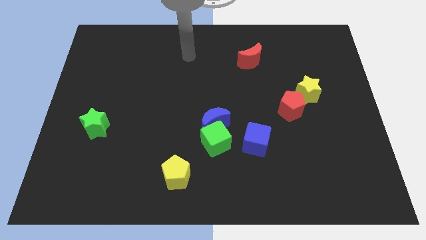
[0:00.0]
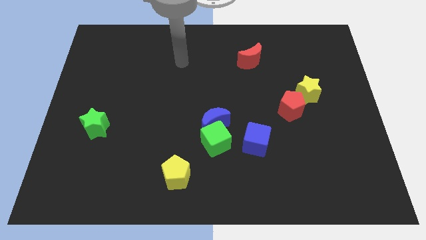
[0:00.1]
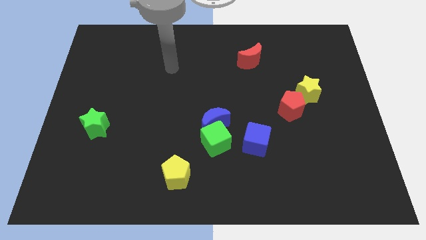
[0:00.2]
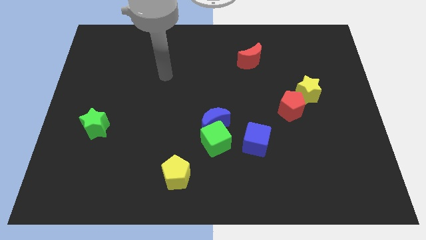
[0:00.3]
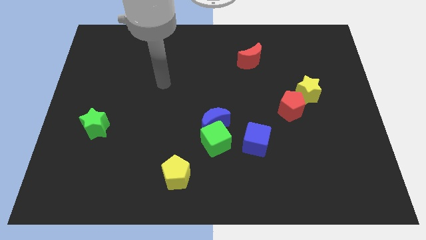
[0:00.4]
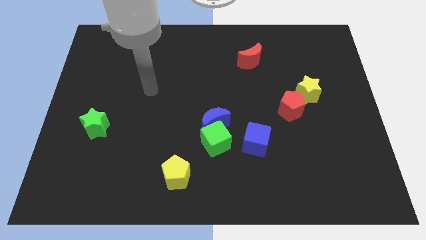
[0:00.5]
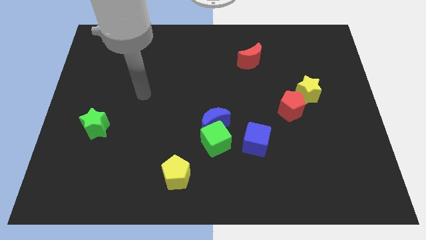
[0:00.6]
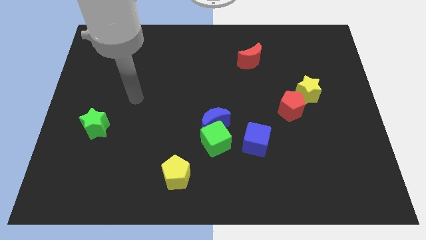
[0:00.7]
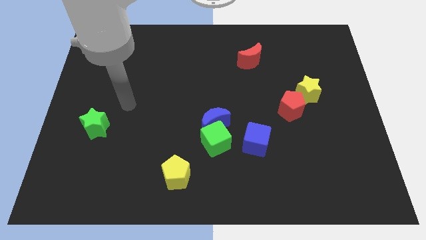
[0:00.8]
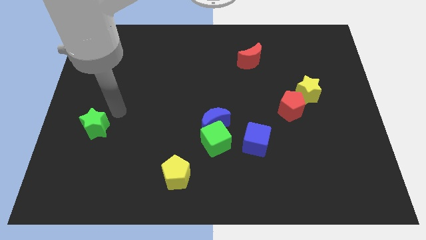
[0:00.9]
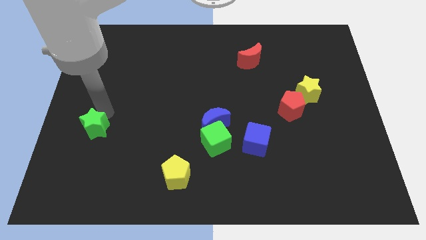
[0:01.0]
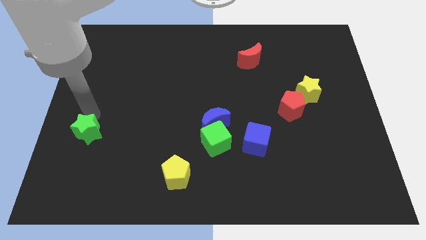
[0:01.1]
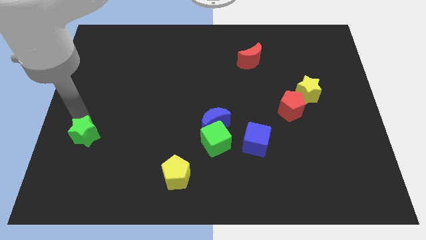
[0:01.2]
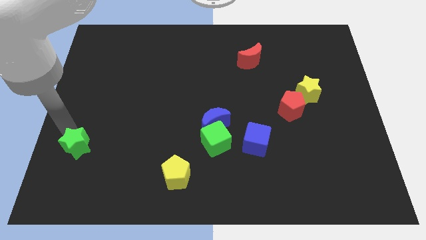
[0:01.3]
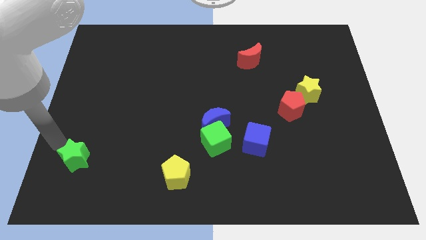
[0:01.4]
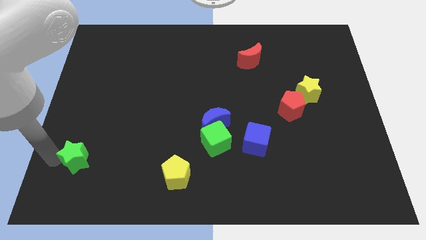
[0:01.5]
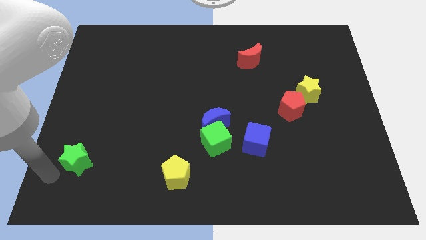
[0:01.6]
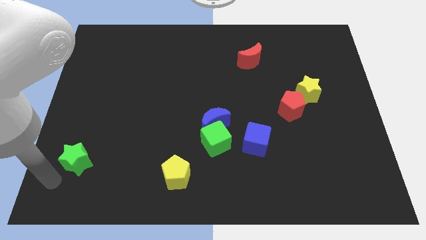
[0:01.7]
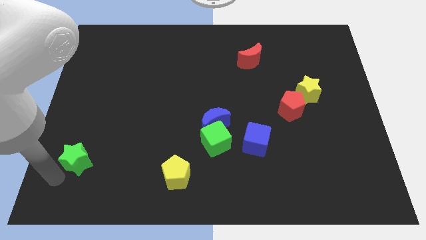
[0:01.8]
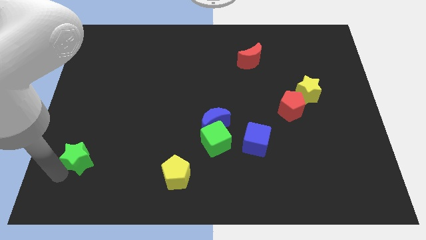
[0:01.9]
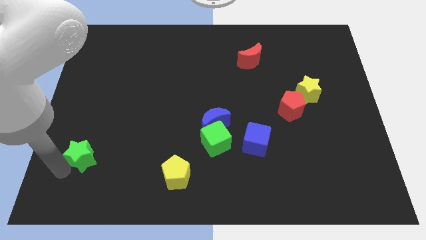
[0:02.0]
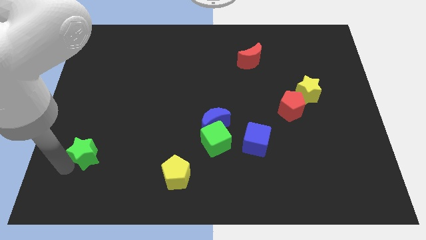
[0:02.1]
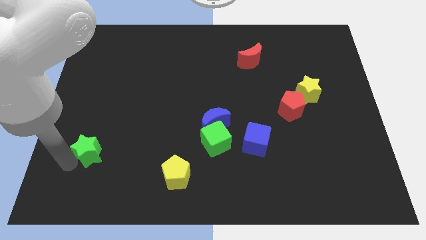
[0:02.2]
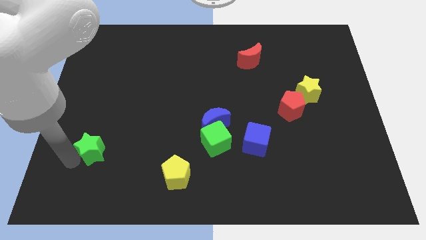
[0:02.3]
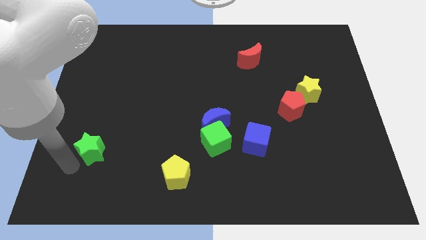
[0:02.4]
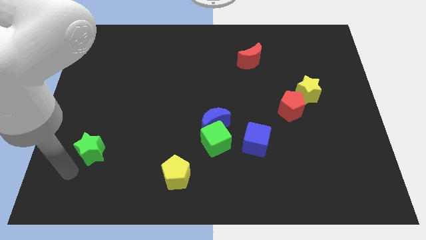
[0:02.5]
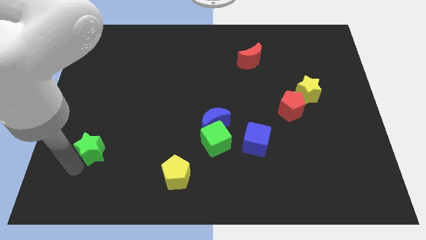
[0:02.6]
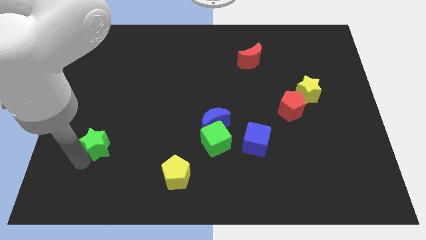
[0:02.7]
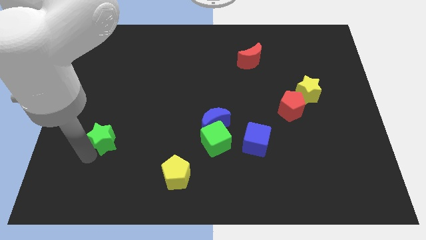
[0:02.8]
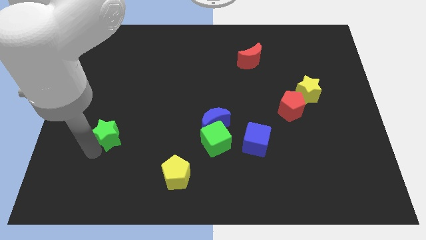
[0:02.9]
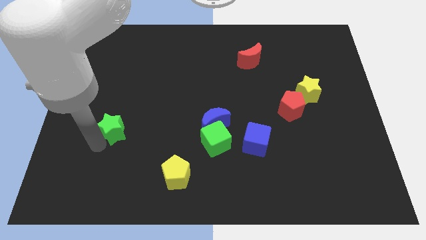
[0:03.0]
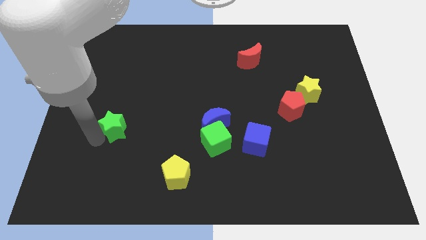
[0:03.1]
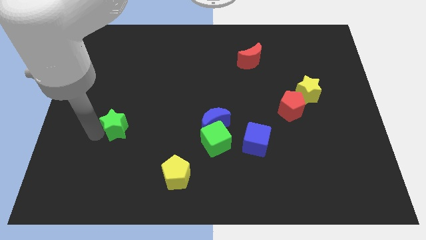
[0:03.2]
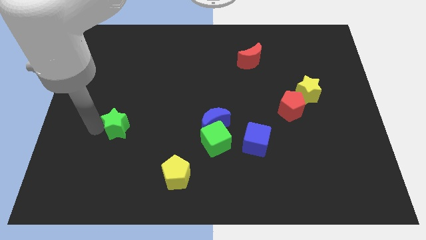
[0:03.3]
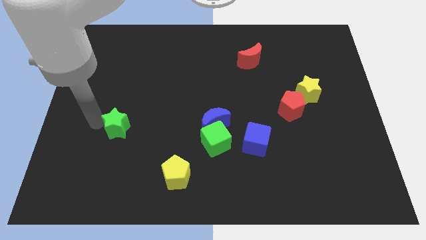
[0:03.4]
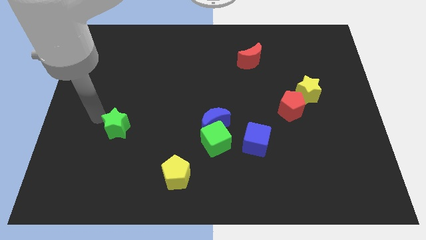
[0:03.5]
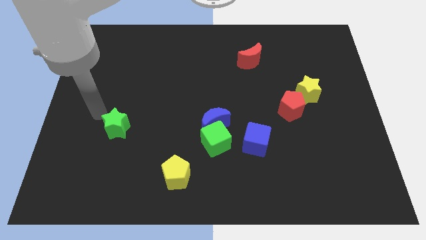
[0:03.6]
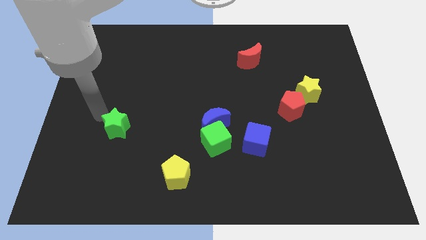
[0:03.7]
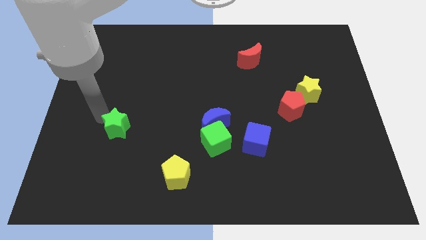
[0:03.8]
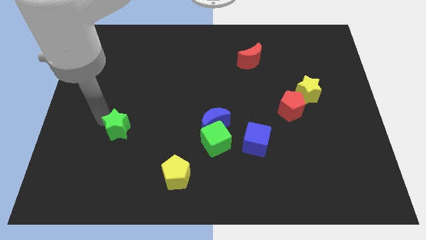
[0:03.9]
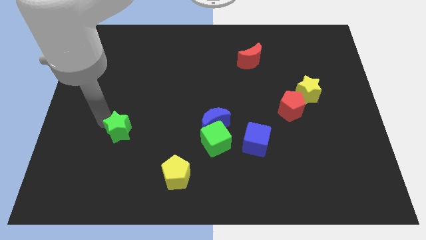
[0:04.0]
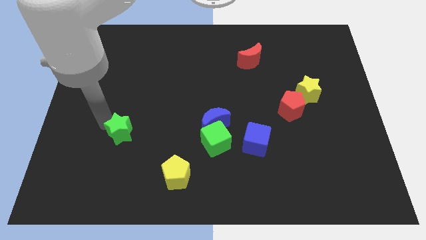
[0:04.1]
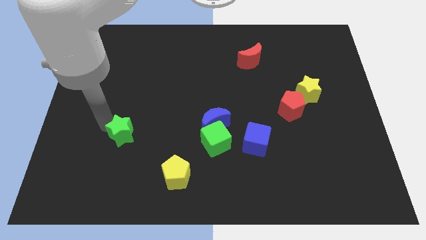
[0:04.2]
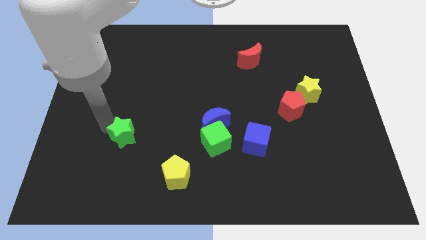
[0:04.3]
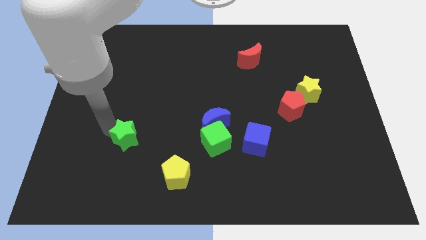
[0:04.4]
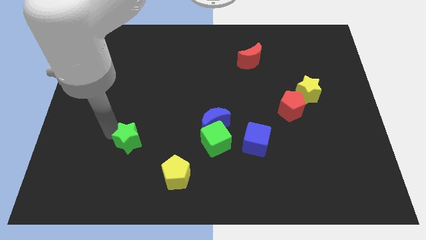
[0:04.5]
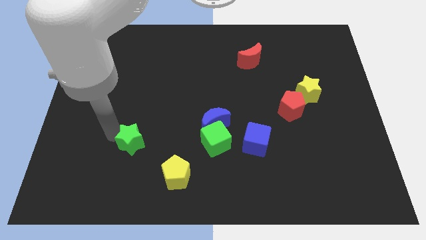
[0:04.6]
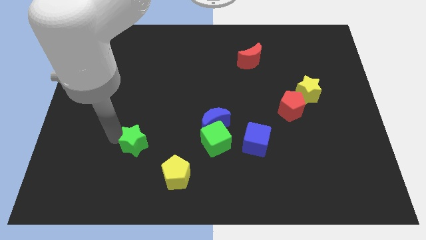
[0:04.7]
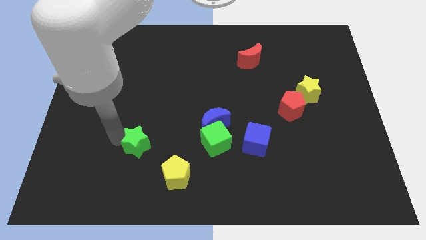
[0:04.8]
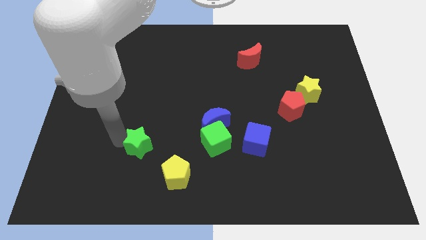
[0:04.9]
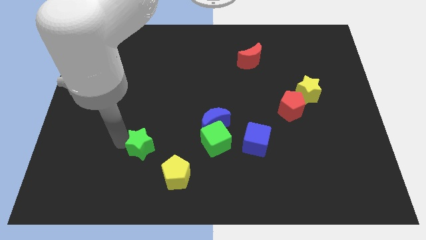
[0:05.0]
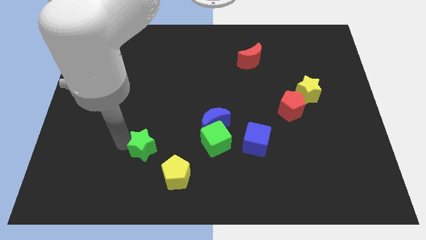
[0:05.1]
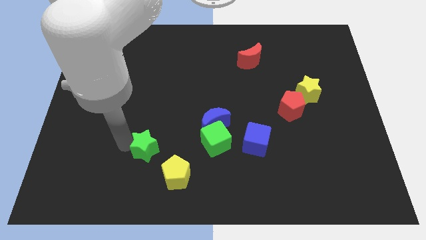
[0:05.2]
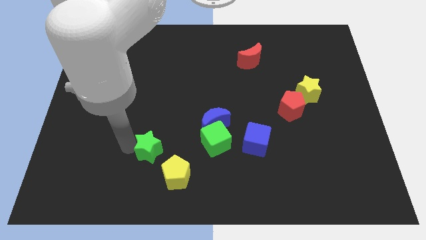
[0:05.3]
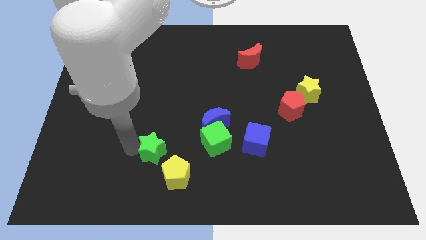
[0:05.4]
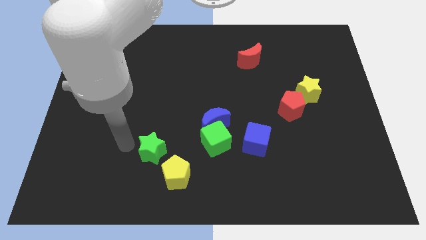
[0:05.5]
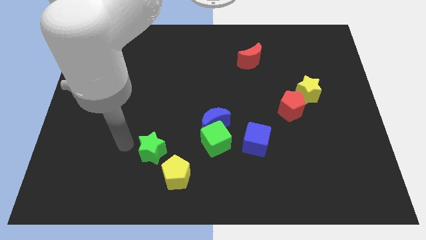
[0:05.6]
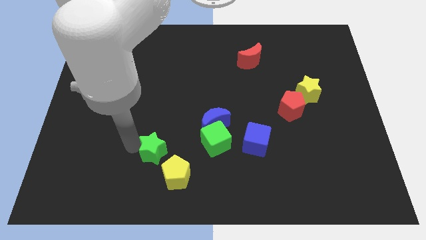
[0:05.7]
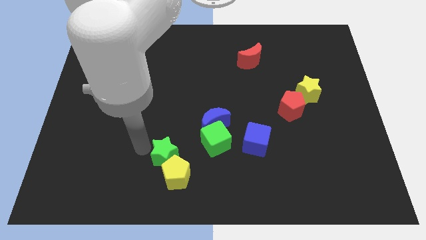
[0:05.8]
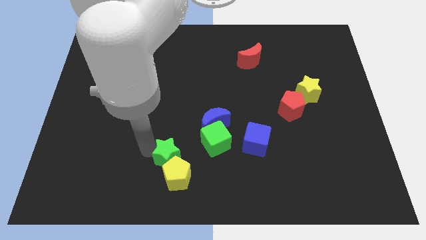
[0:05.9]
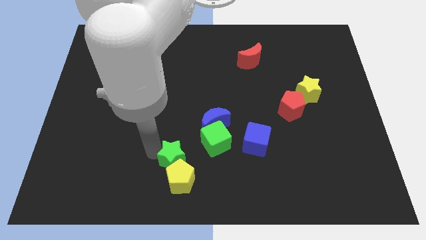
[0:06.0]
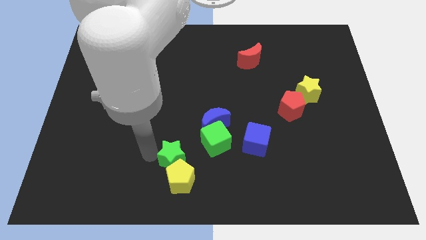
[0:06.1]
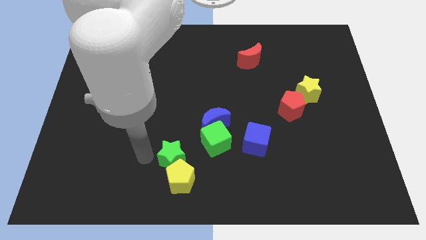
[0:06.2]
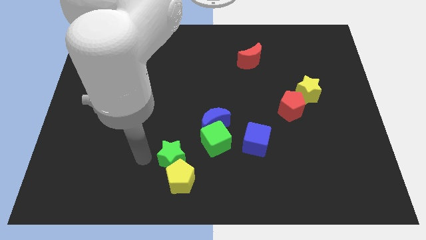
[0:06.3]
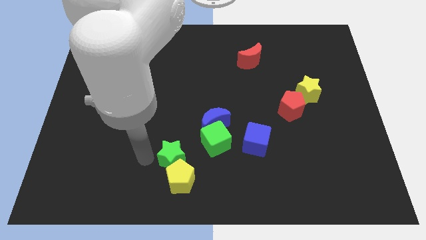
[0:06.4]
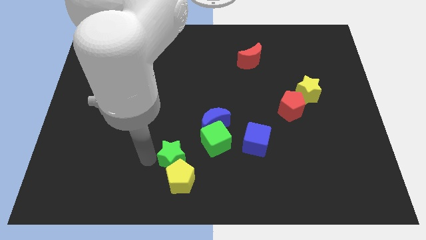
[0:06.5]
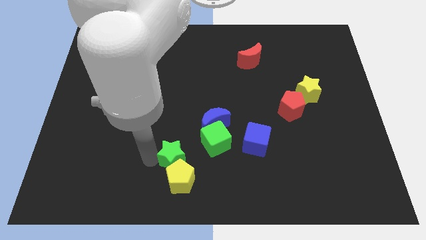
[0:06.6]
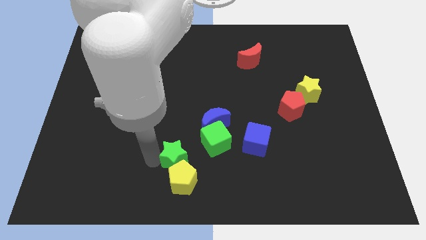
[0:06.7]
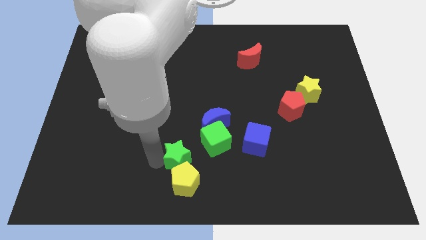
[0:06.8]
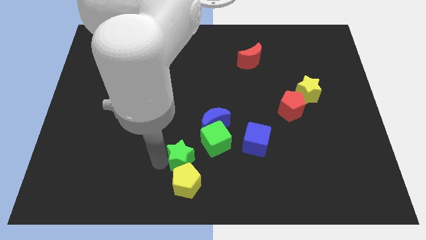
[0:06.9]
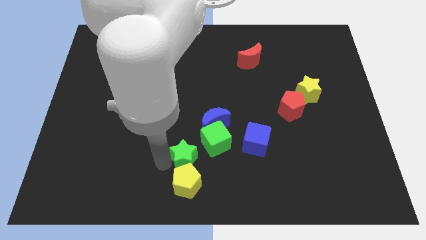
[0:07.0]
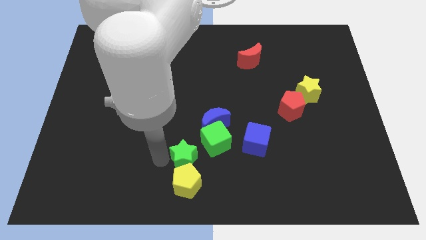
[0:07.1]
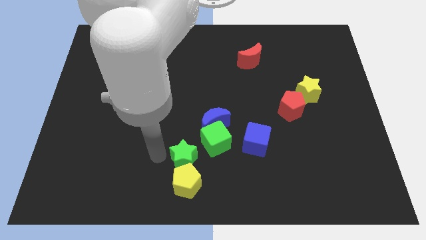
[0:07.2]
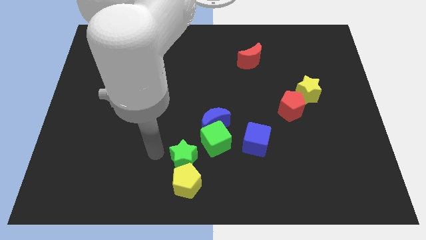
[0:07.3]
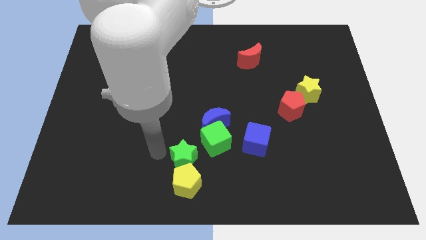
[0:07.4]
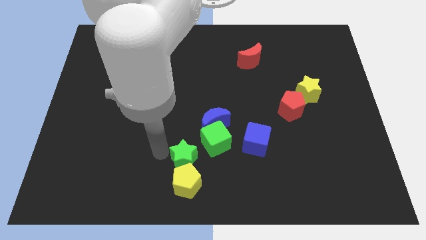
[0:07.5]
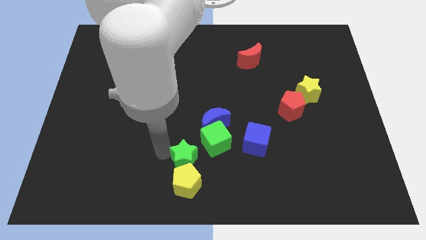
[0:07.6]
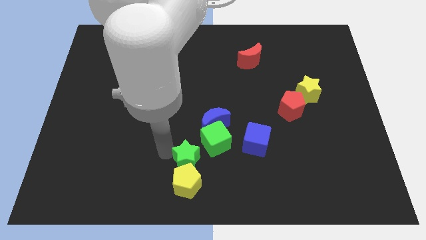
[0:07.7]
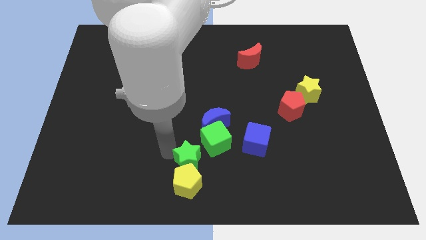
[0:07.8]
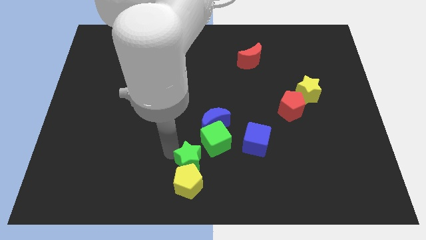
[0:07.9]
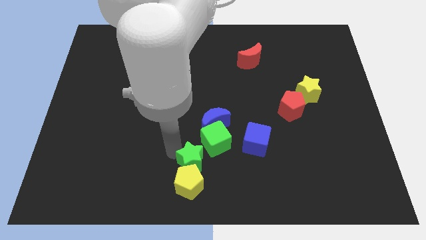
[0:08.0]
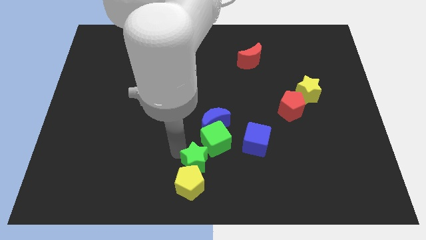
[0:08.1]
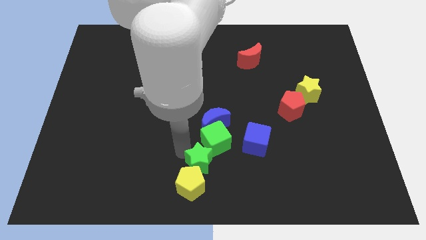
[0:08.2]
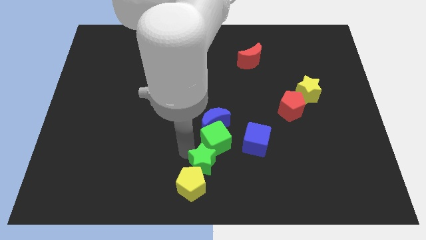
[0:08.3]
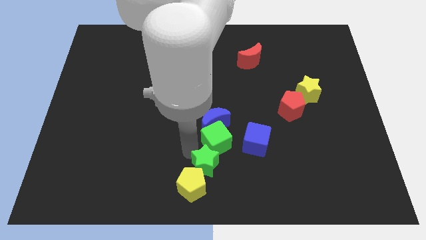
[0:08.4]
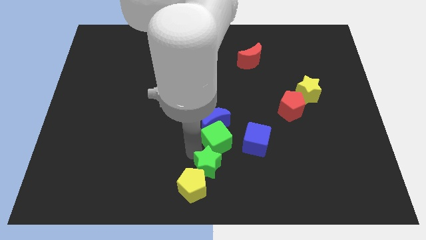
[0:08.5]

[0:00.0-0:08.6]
move the green star to the bottom left side of the blue cube
